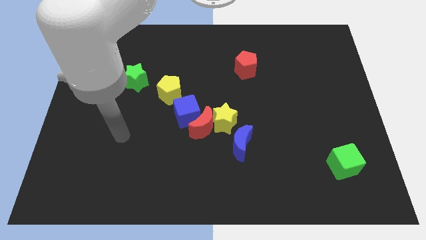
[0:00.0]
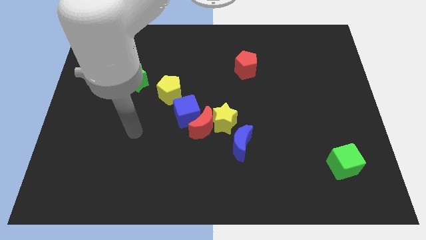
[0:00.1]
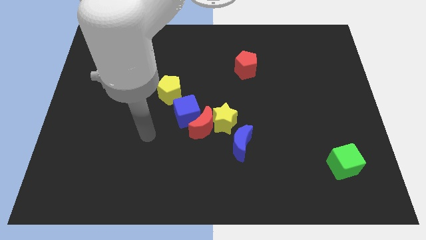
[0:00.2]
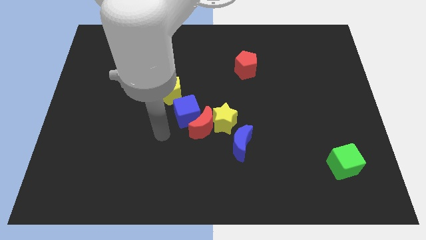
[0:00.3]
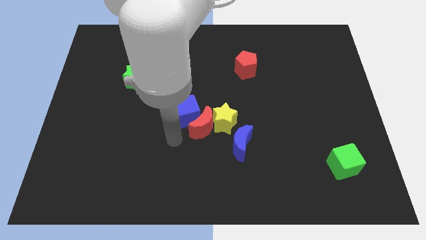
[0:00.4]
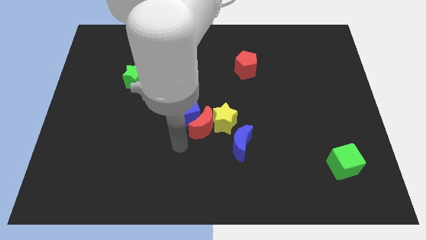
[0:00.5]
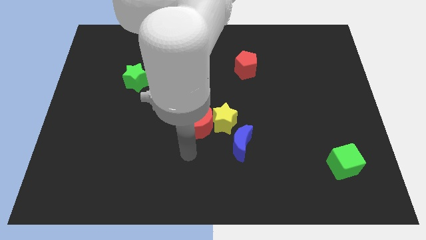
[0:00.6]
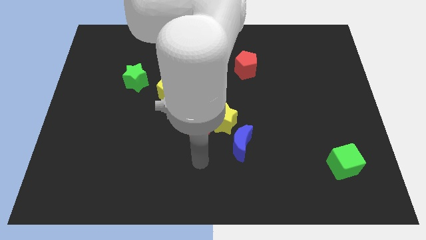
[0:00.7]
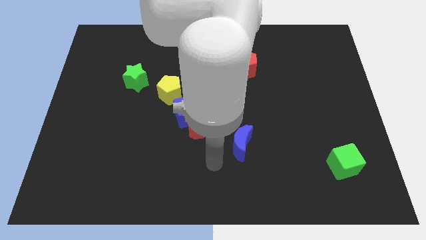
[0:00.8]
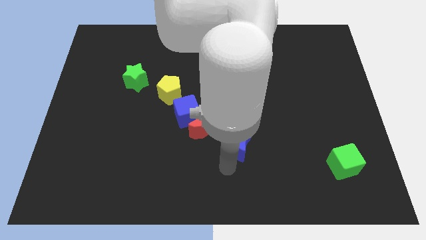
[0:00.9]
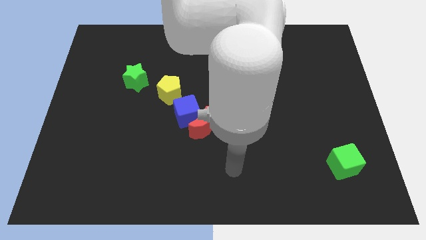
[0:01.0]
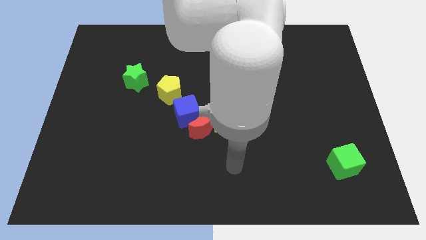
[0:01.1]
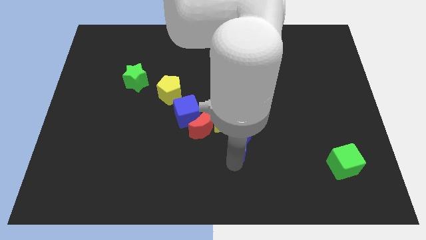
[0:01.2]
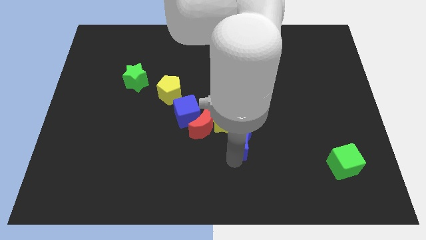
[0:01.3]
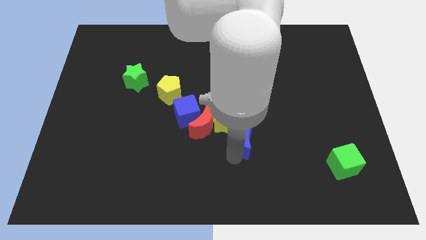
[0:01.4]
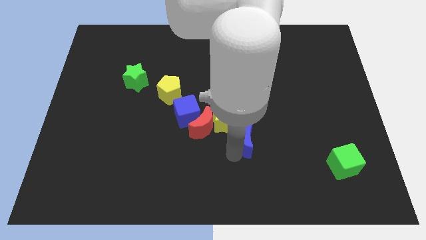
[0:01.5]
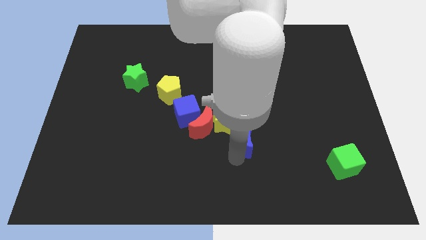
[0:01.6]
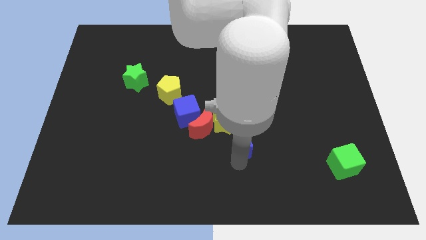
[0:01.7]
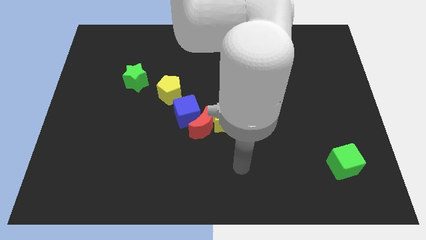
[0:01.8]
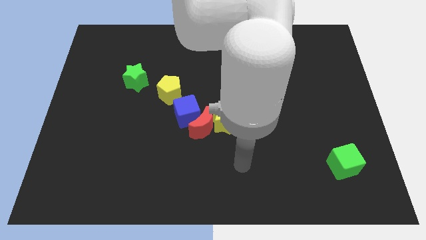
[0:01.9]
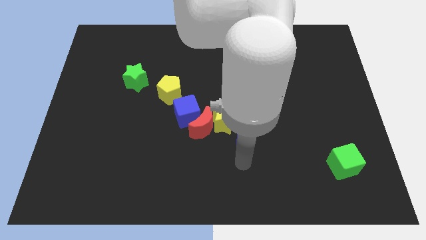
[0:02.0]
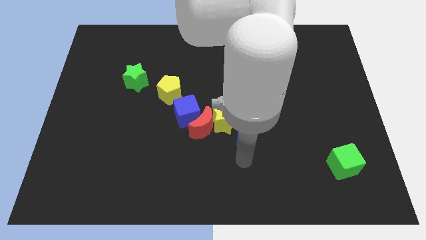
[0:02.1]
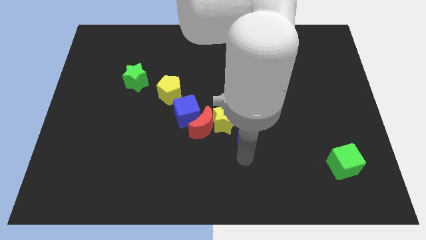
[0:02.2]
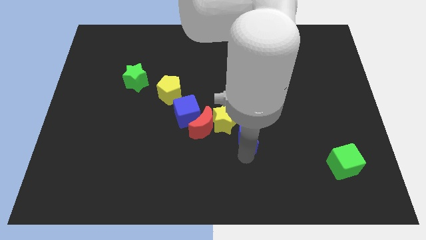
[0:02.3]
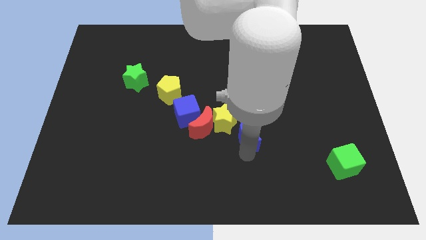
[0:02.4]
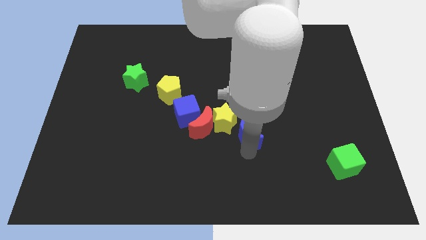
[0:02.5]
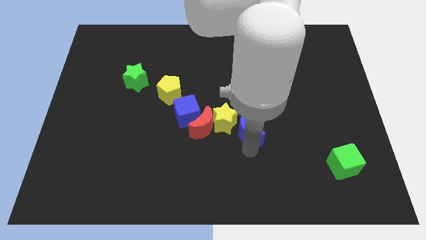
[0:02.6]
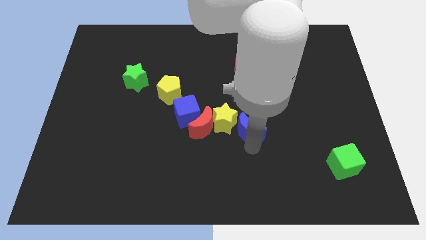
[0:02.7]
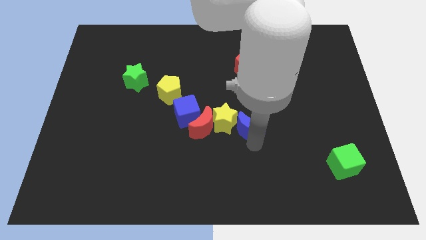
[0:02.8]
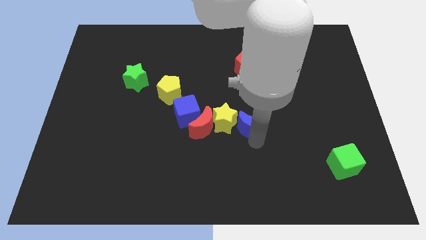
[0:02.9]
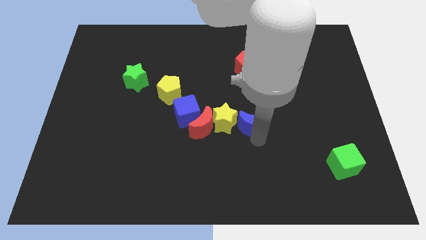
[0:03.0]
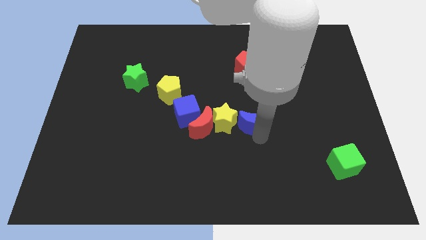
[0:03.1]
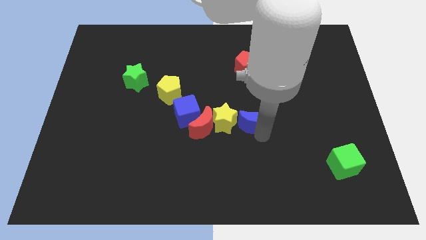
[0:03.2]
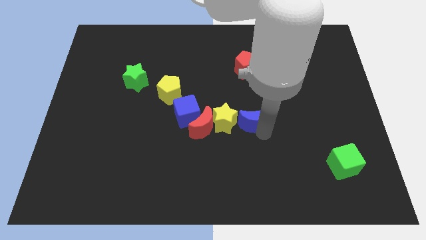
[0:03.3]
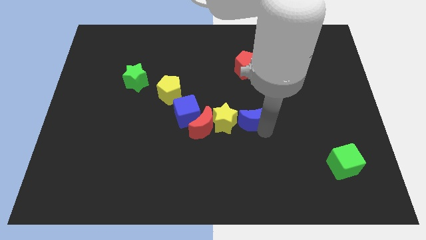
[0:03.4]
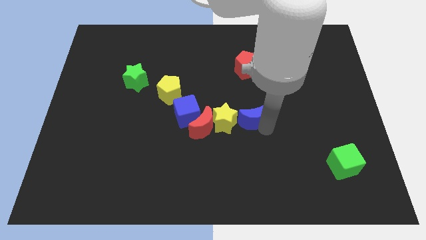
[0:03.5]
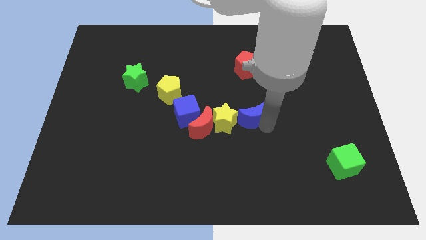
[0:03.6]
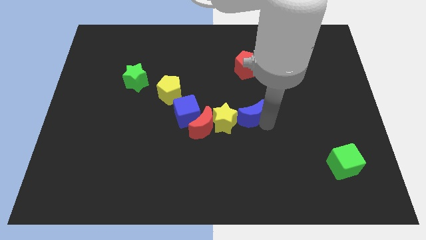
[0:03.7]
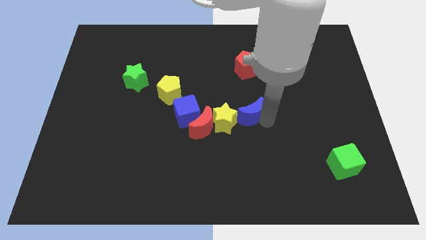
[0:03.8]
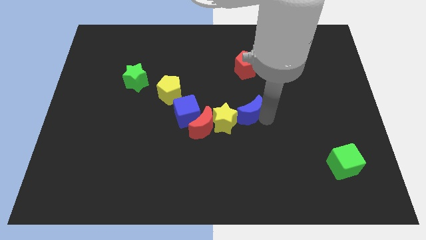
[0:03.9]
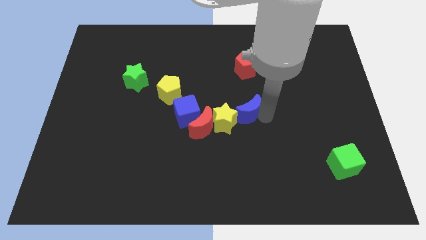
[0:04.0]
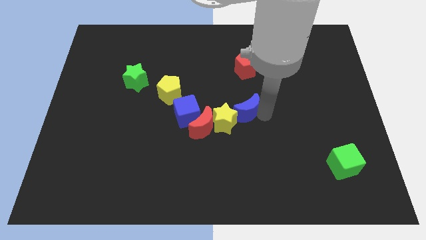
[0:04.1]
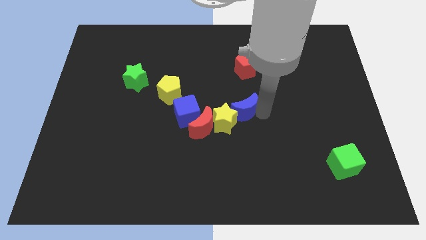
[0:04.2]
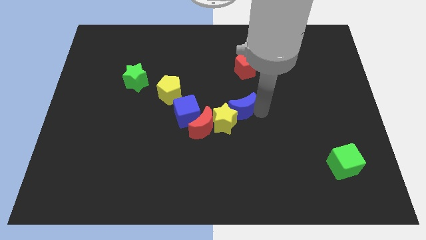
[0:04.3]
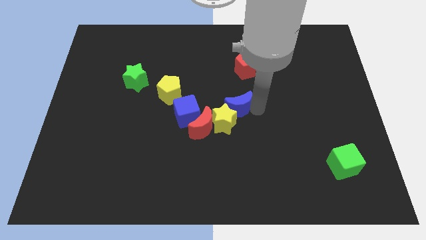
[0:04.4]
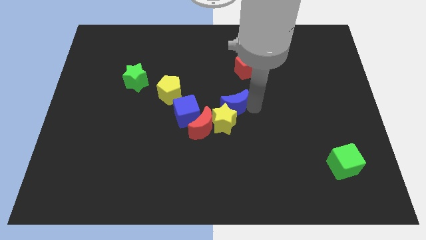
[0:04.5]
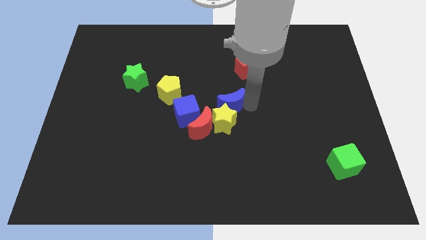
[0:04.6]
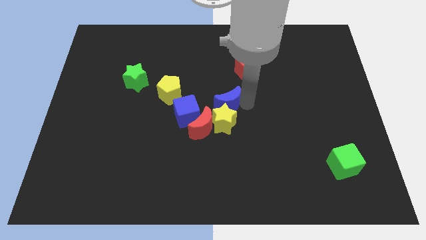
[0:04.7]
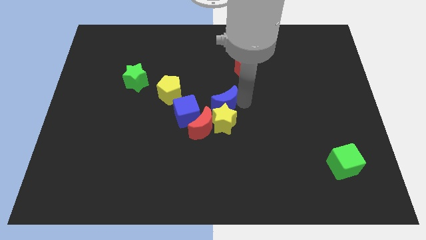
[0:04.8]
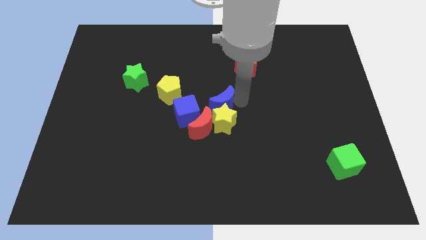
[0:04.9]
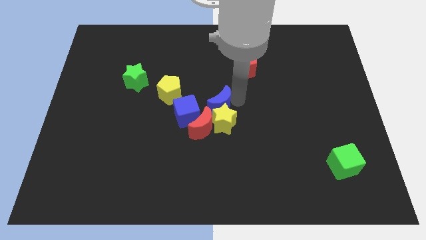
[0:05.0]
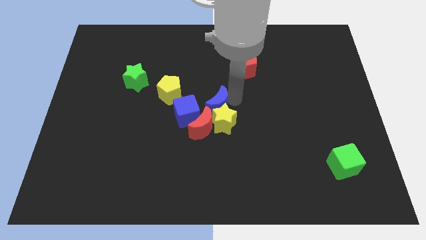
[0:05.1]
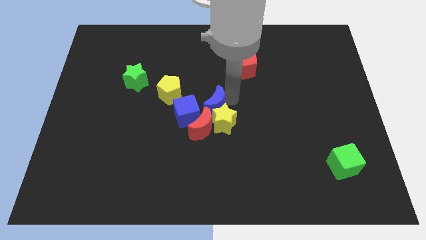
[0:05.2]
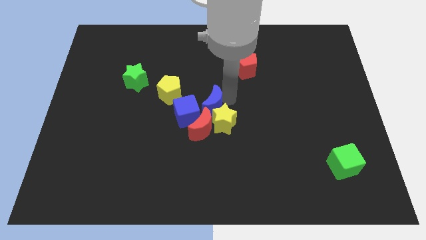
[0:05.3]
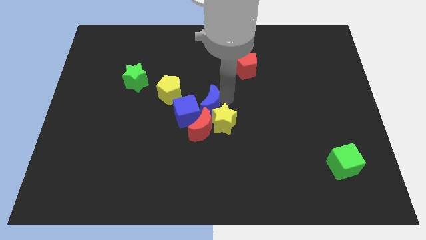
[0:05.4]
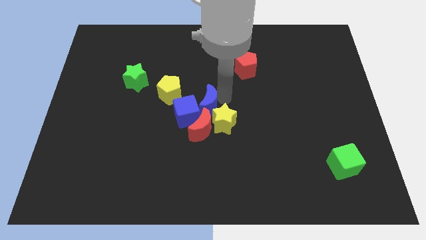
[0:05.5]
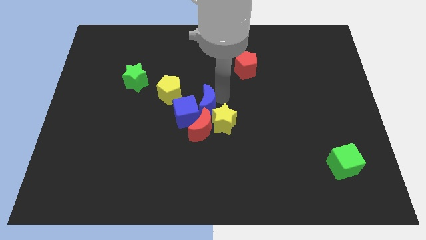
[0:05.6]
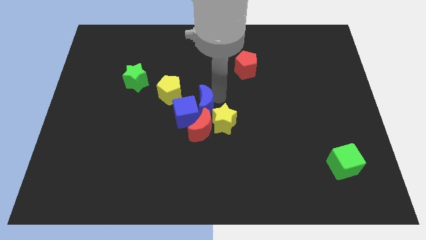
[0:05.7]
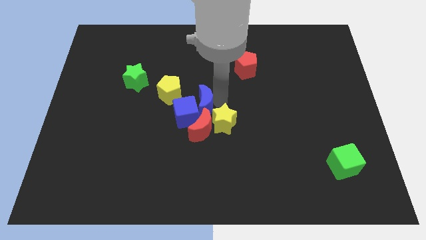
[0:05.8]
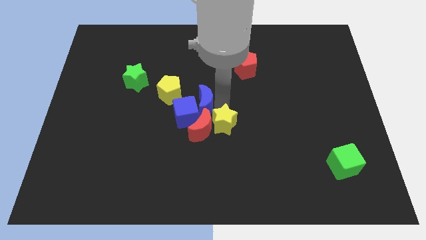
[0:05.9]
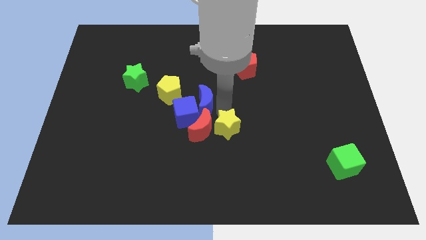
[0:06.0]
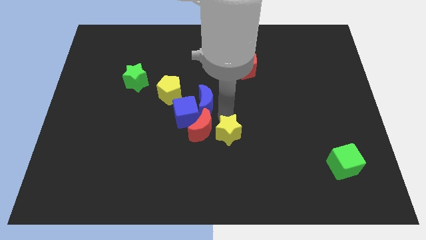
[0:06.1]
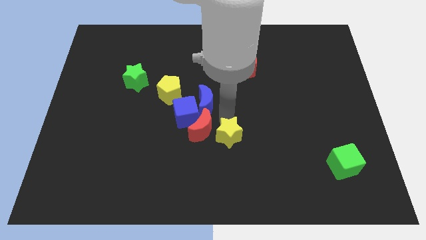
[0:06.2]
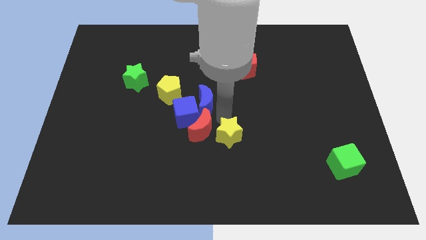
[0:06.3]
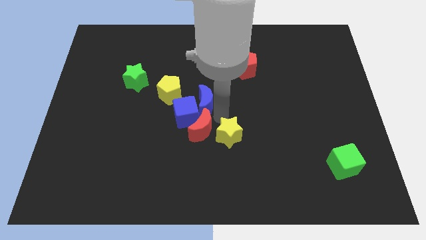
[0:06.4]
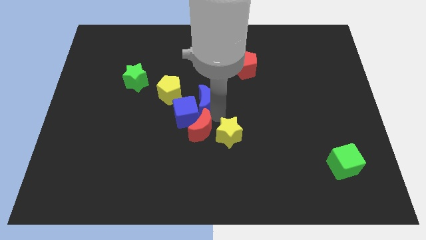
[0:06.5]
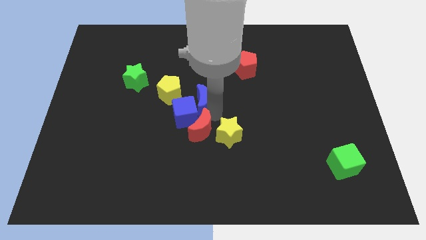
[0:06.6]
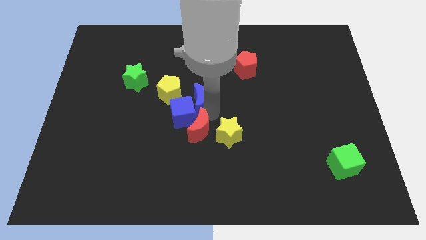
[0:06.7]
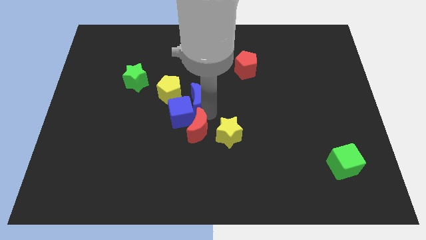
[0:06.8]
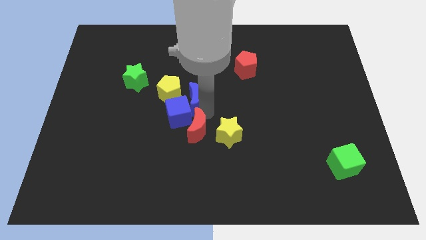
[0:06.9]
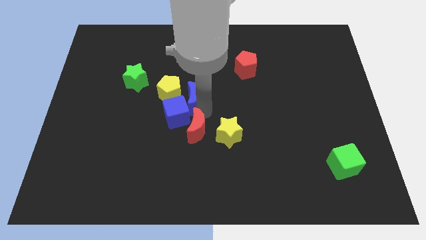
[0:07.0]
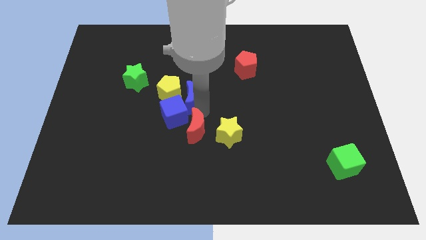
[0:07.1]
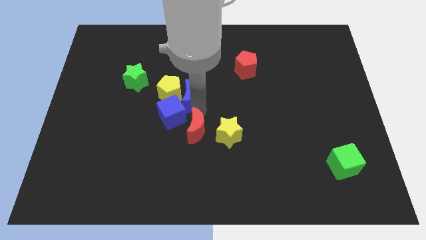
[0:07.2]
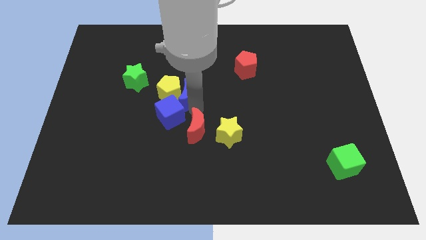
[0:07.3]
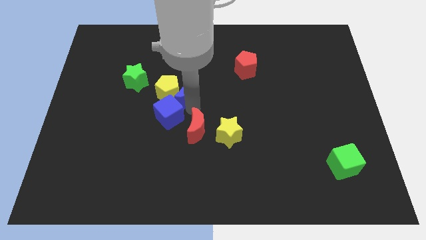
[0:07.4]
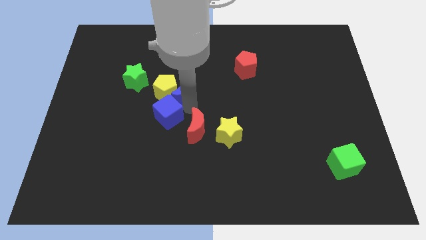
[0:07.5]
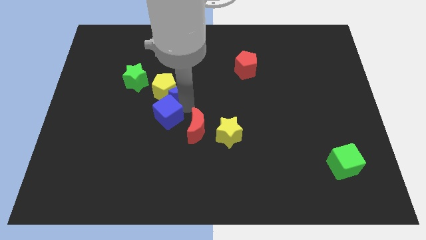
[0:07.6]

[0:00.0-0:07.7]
move the blue moon to the right side of the green star
